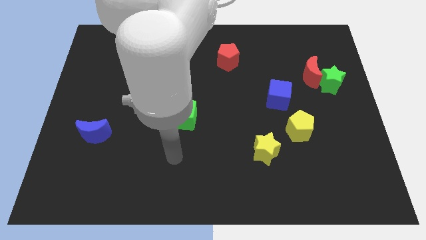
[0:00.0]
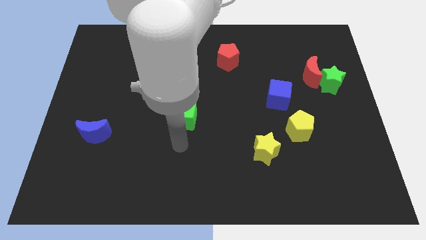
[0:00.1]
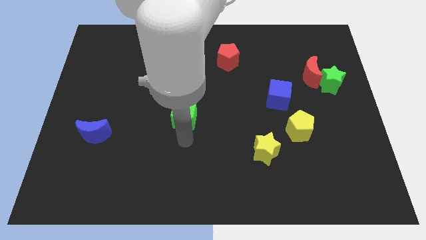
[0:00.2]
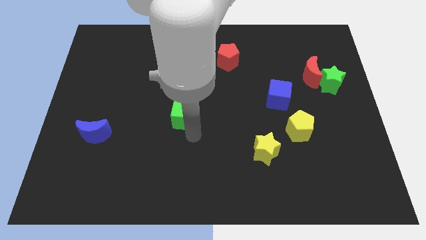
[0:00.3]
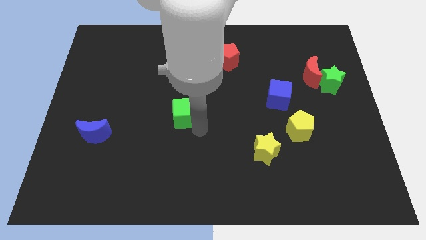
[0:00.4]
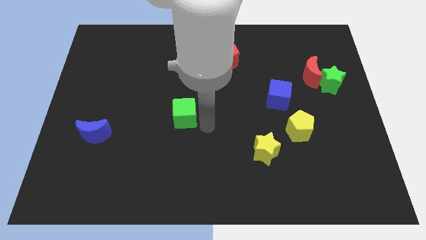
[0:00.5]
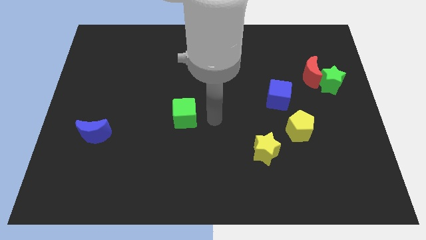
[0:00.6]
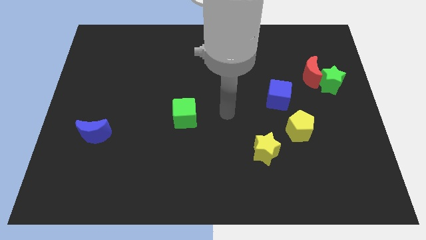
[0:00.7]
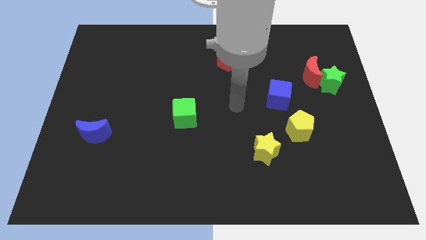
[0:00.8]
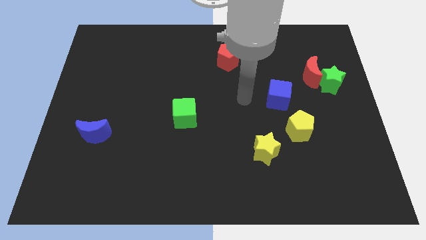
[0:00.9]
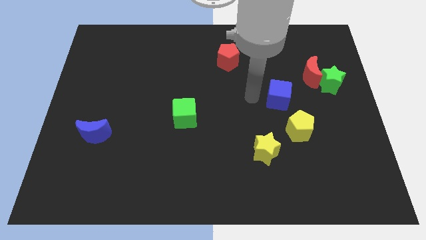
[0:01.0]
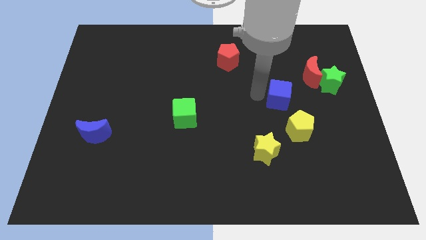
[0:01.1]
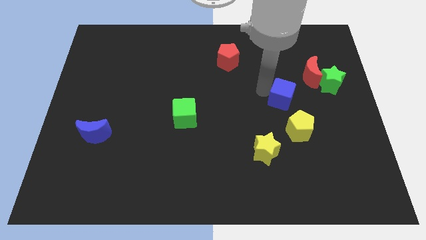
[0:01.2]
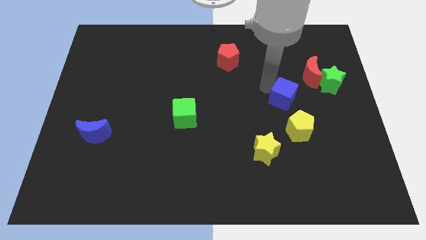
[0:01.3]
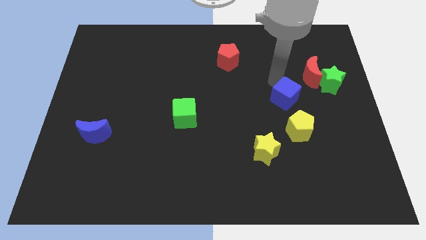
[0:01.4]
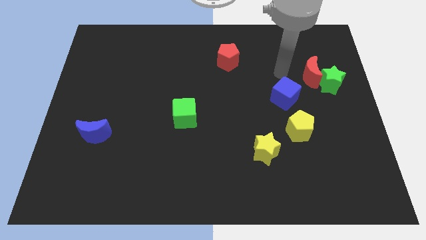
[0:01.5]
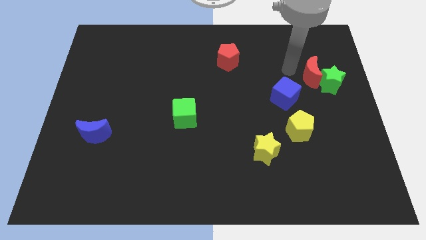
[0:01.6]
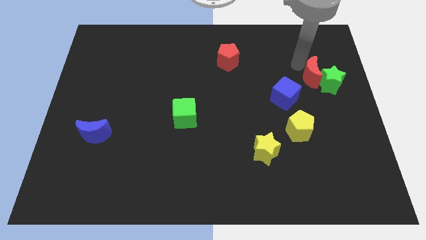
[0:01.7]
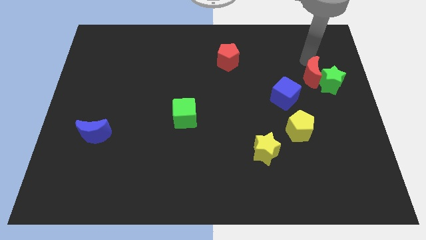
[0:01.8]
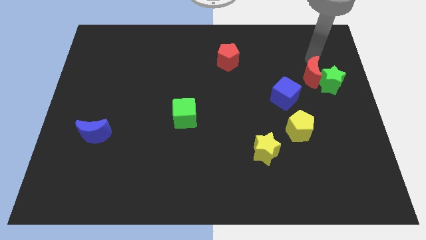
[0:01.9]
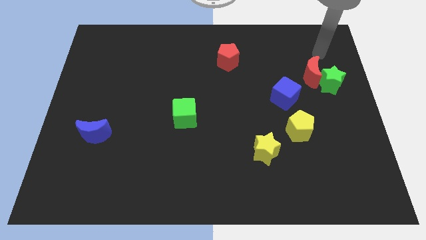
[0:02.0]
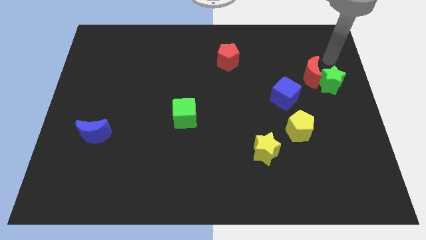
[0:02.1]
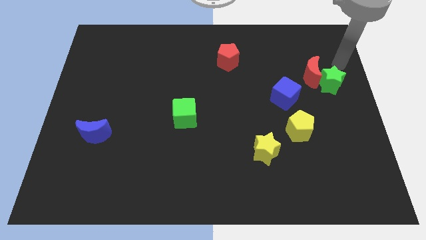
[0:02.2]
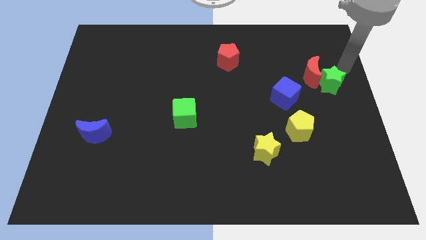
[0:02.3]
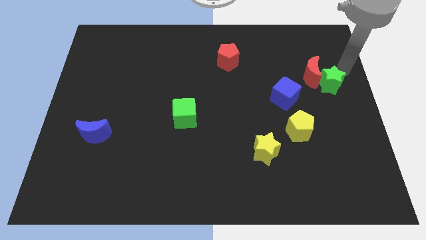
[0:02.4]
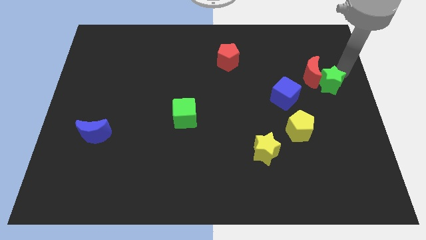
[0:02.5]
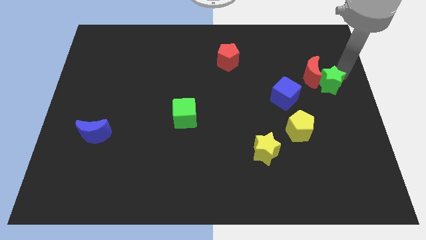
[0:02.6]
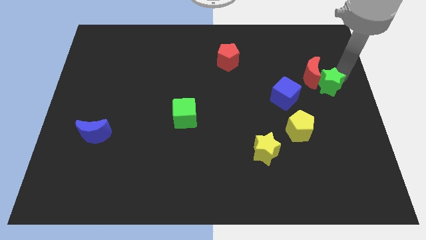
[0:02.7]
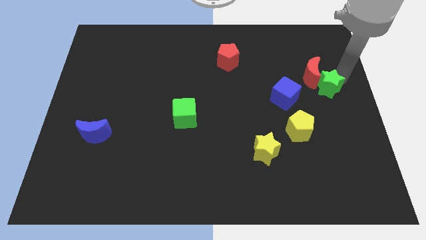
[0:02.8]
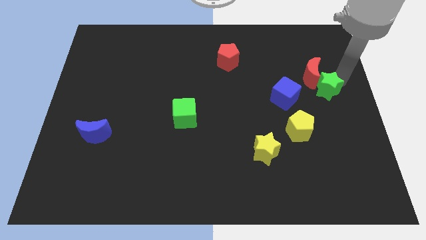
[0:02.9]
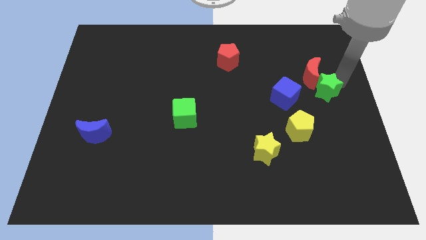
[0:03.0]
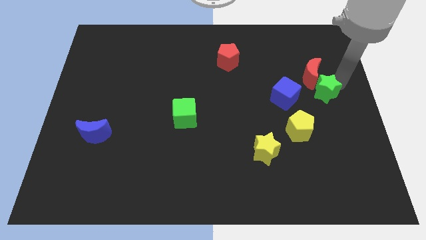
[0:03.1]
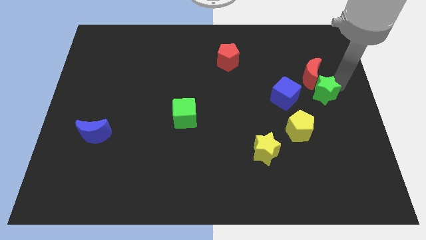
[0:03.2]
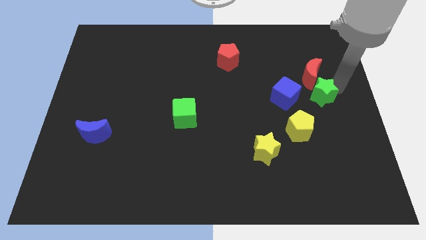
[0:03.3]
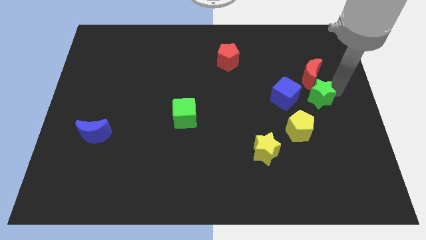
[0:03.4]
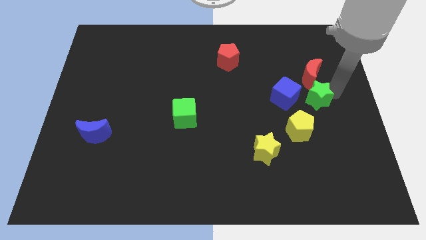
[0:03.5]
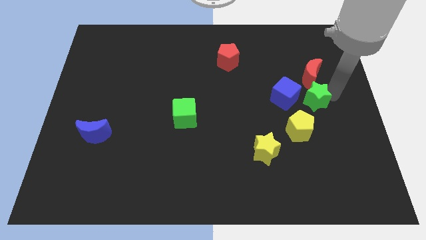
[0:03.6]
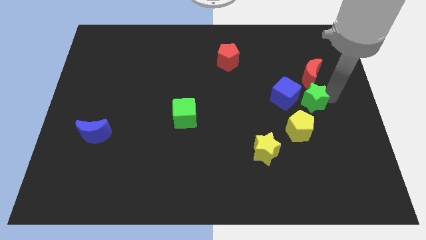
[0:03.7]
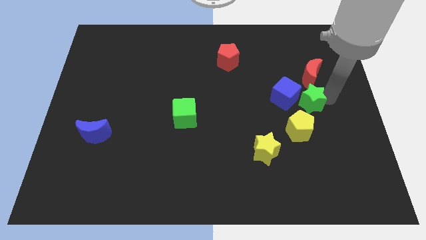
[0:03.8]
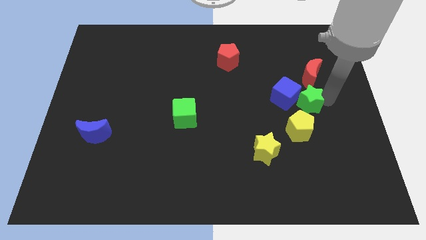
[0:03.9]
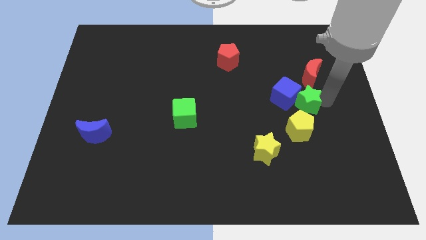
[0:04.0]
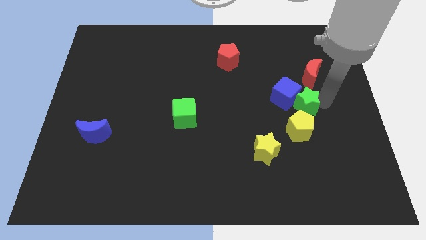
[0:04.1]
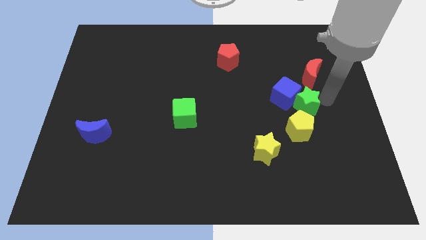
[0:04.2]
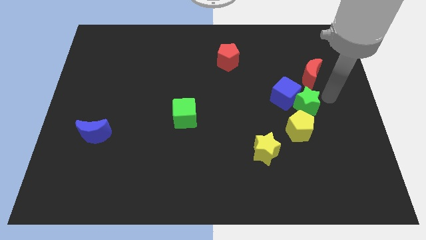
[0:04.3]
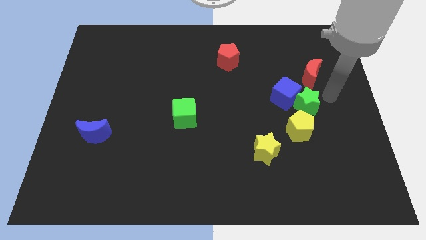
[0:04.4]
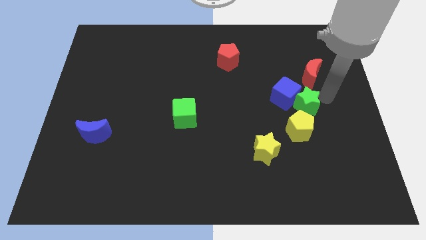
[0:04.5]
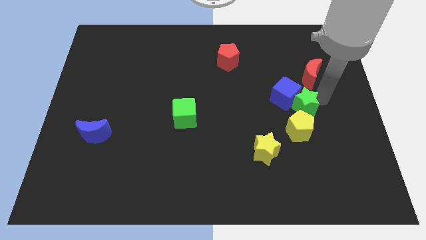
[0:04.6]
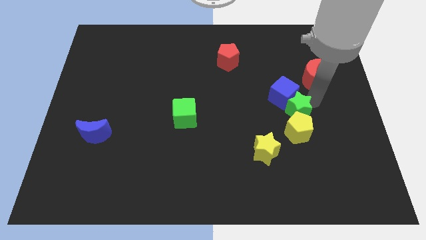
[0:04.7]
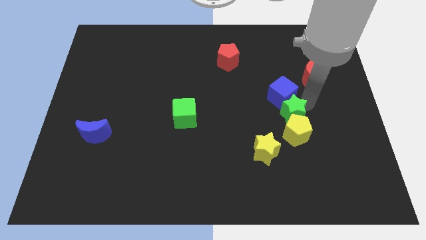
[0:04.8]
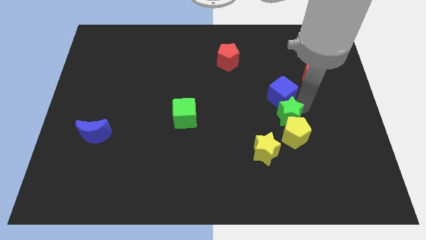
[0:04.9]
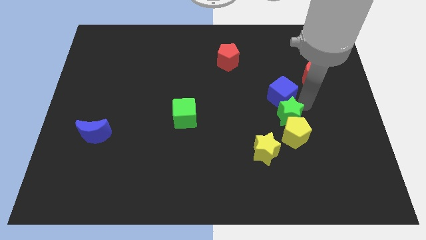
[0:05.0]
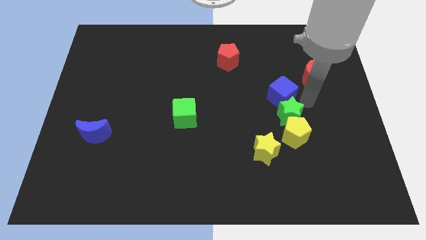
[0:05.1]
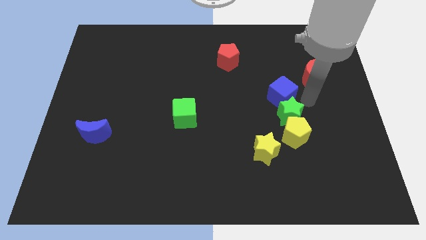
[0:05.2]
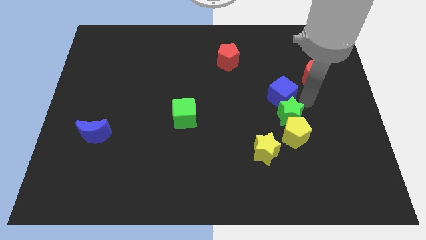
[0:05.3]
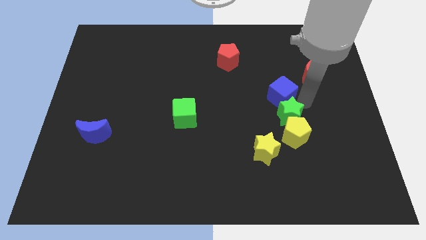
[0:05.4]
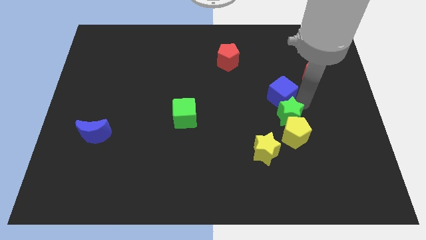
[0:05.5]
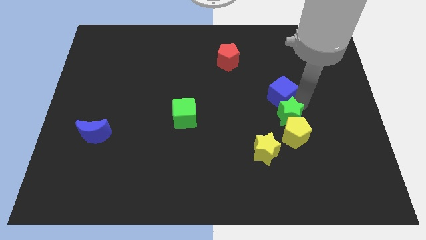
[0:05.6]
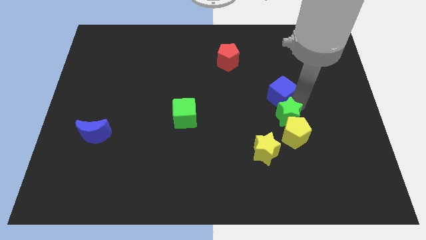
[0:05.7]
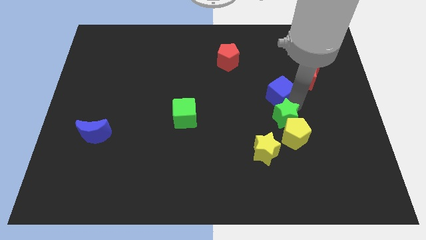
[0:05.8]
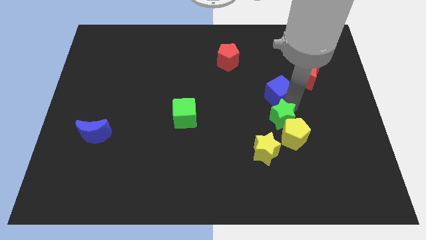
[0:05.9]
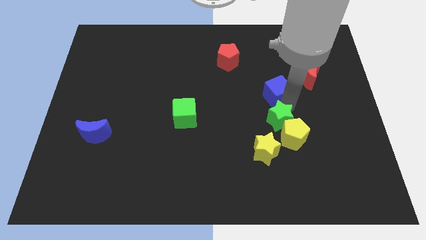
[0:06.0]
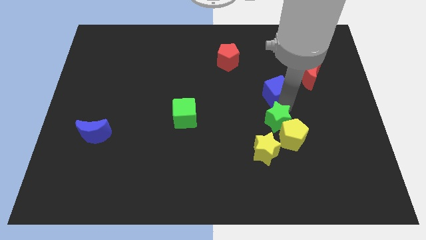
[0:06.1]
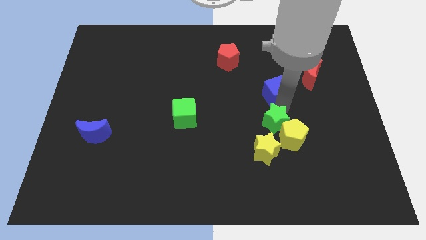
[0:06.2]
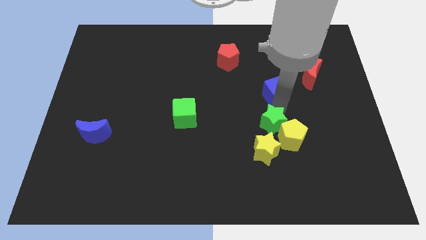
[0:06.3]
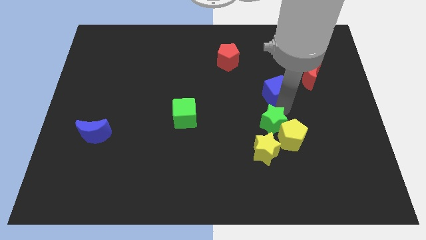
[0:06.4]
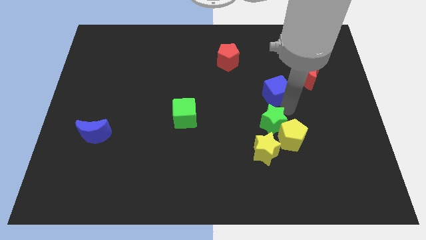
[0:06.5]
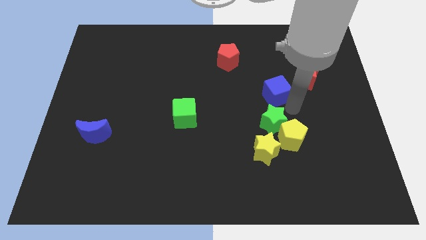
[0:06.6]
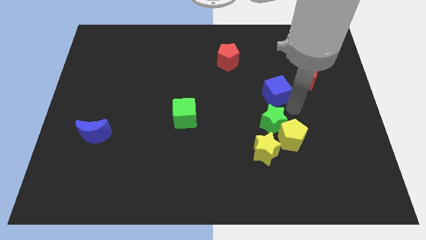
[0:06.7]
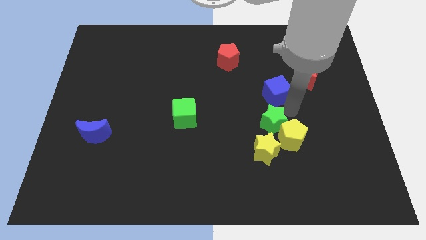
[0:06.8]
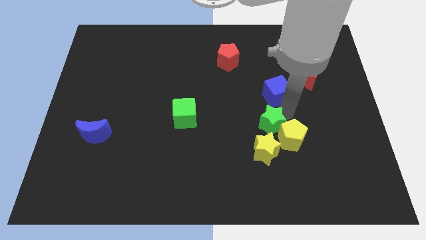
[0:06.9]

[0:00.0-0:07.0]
move the green star downwards and left diagonally

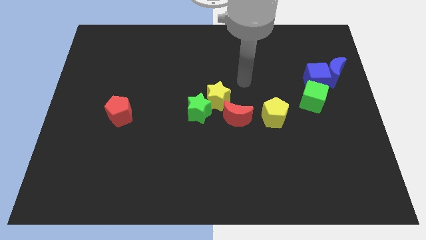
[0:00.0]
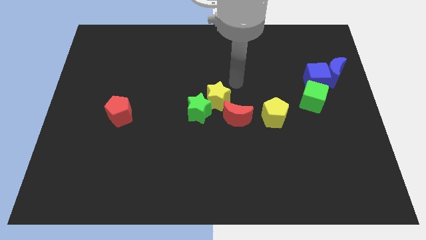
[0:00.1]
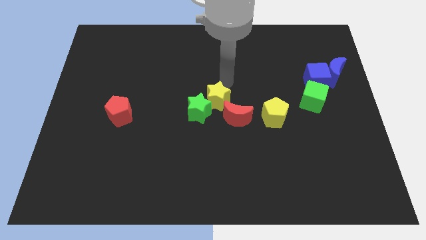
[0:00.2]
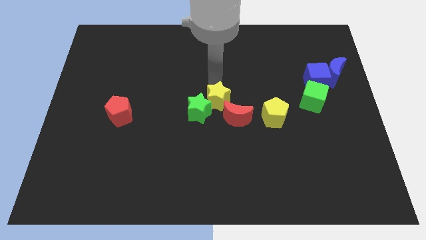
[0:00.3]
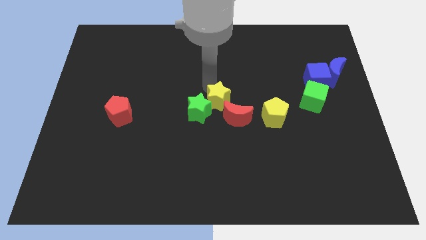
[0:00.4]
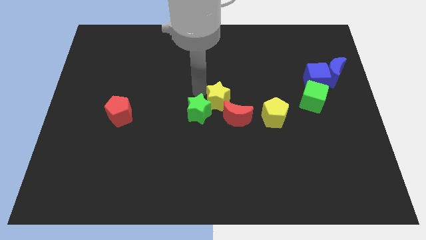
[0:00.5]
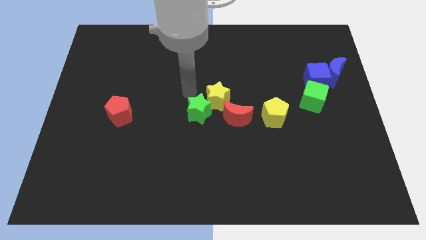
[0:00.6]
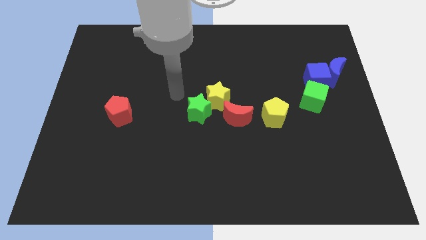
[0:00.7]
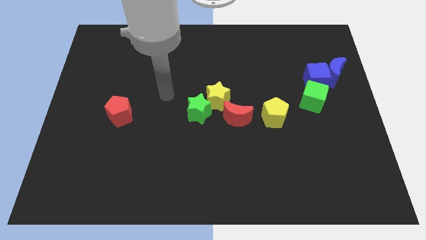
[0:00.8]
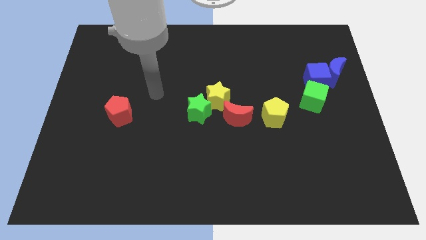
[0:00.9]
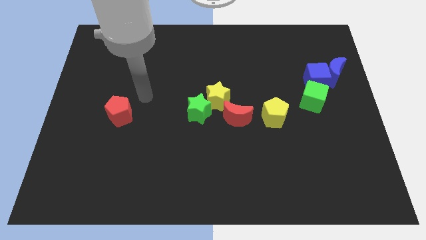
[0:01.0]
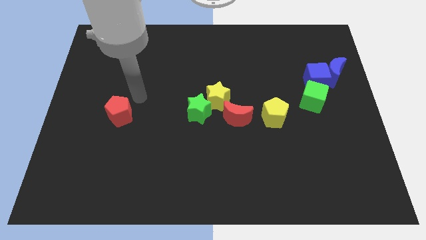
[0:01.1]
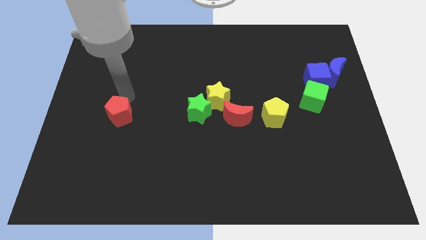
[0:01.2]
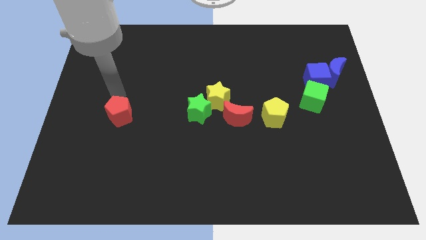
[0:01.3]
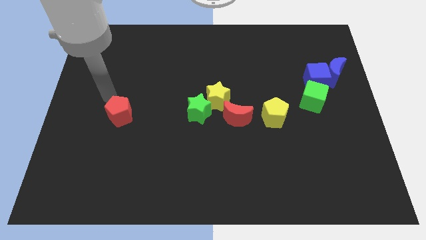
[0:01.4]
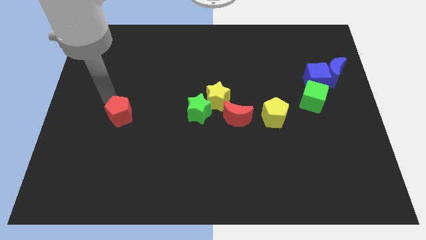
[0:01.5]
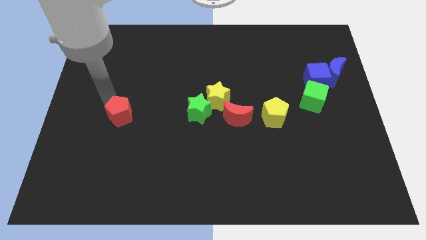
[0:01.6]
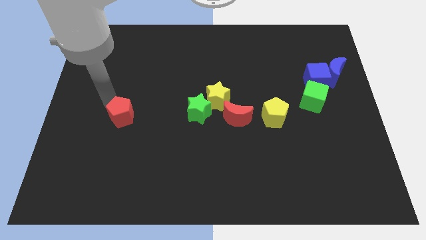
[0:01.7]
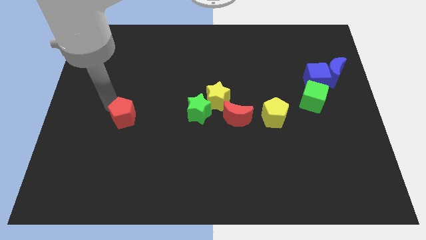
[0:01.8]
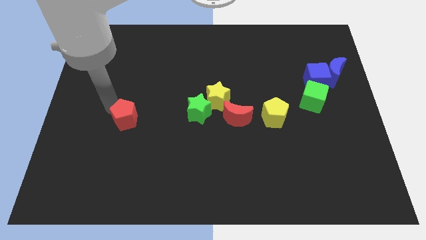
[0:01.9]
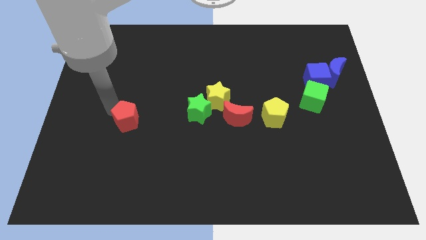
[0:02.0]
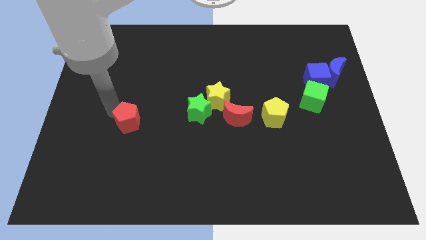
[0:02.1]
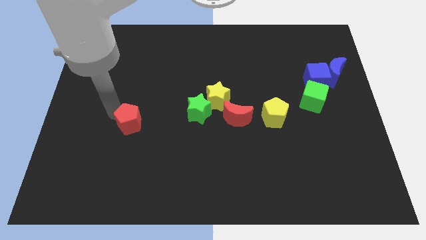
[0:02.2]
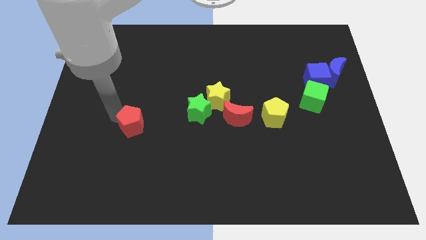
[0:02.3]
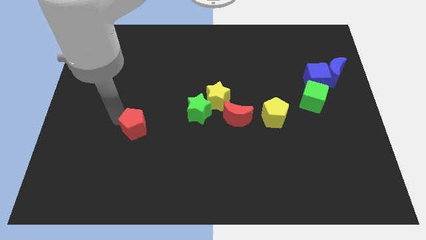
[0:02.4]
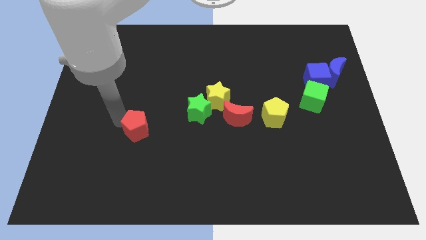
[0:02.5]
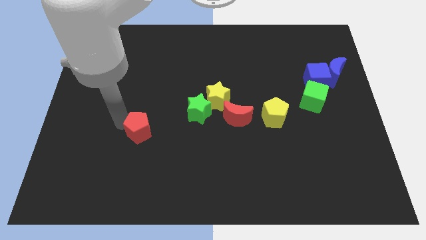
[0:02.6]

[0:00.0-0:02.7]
move the red pentagon a little bit downwards and then to the right
